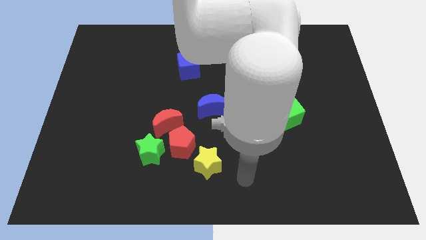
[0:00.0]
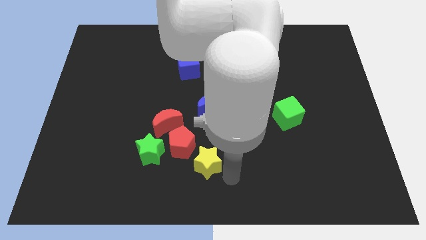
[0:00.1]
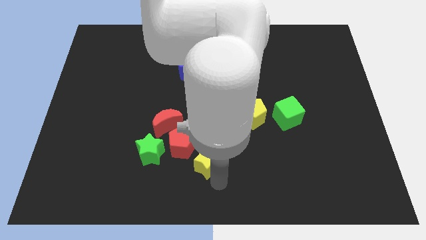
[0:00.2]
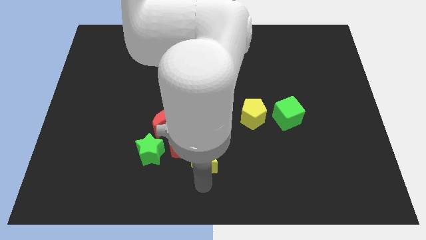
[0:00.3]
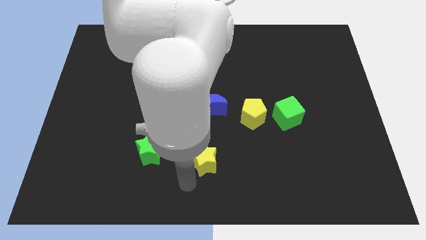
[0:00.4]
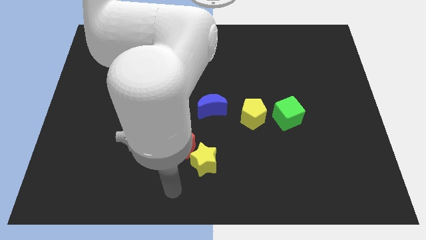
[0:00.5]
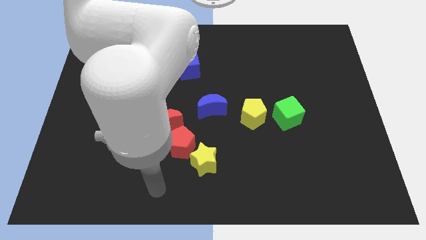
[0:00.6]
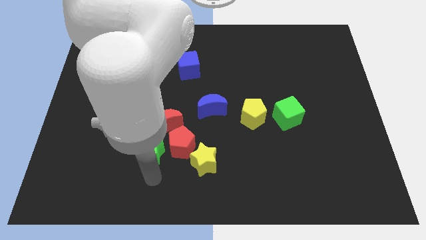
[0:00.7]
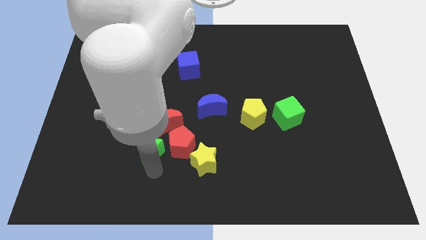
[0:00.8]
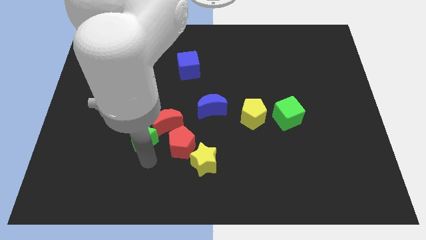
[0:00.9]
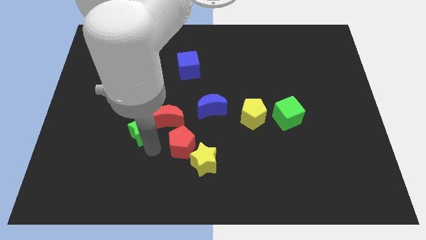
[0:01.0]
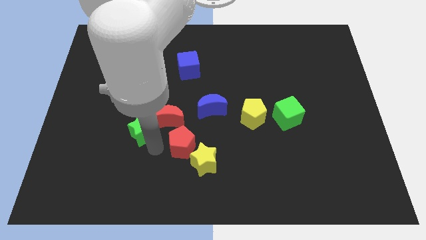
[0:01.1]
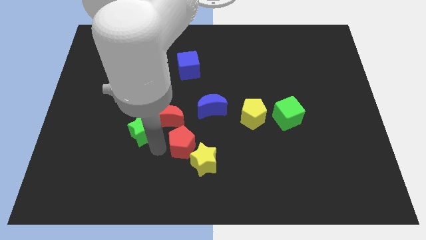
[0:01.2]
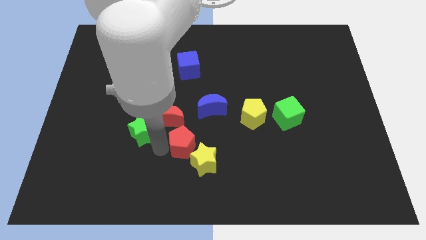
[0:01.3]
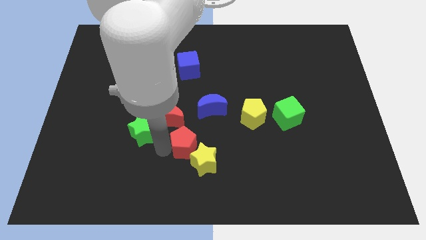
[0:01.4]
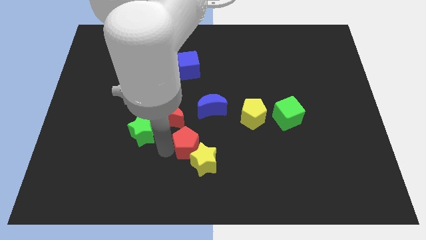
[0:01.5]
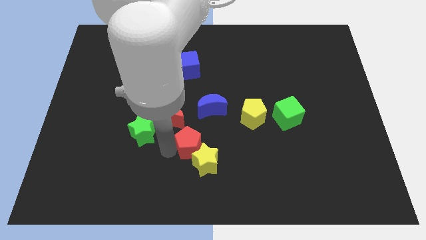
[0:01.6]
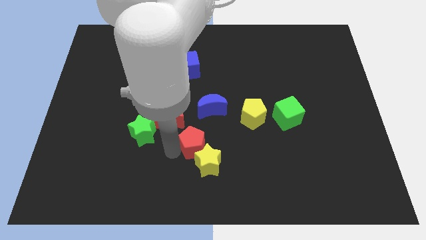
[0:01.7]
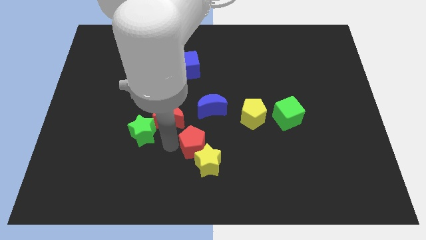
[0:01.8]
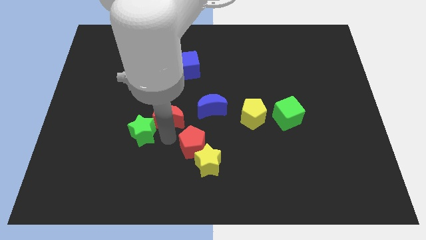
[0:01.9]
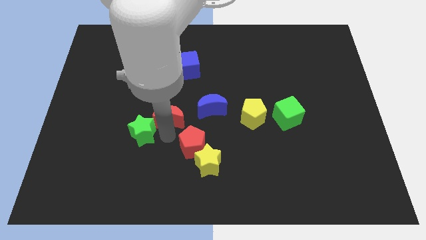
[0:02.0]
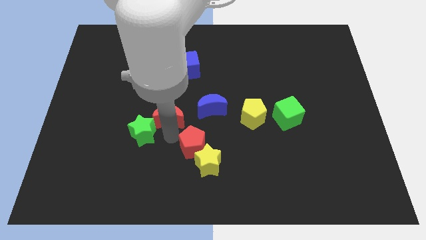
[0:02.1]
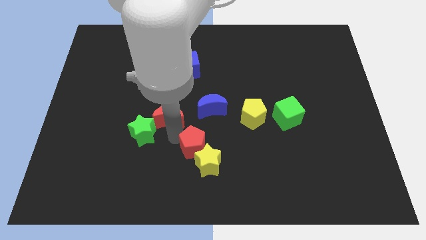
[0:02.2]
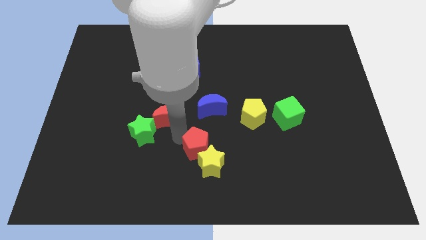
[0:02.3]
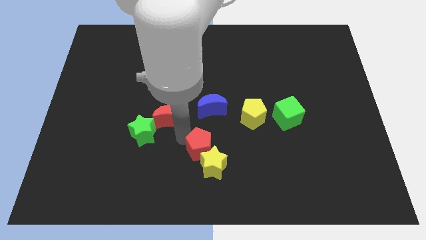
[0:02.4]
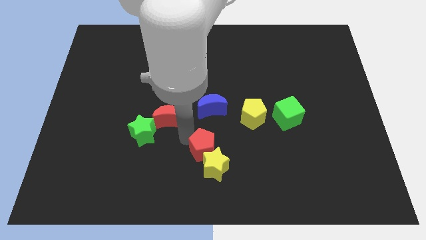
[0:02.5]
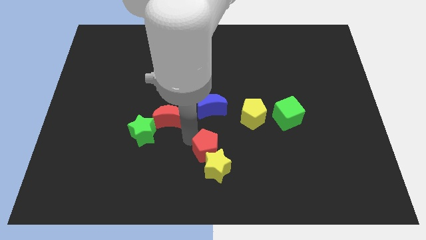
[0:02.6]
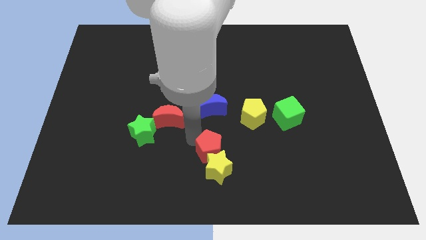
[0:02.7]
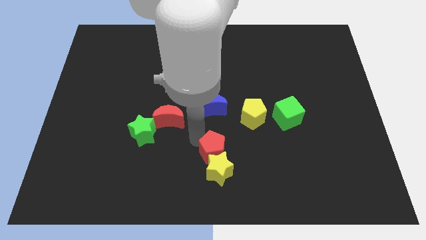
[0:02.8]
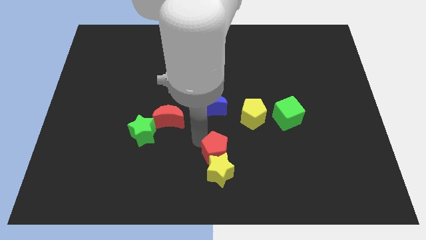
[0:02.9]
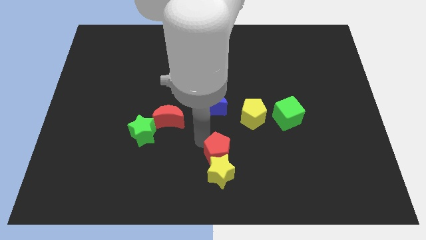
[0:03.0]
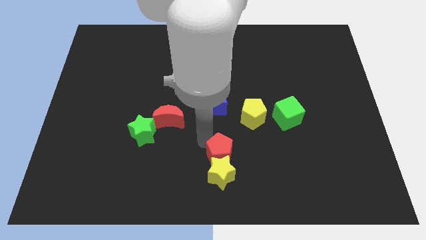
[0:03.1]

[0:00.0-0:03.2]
pull the red pentagon apart from the red moon, green star, and yellow star

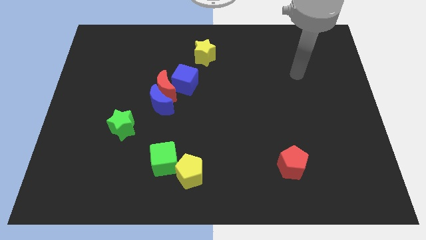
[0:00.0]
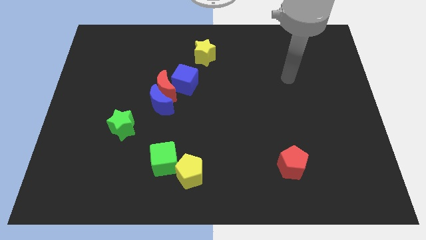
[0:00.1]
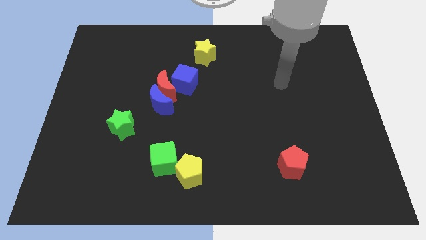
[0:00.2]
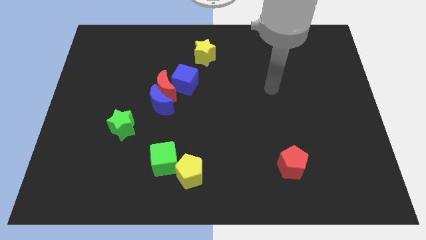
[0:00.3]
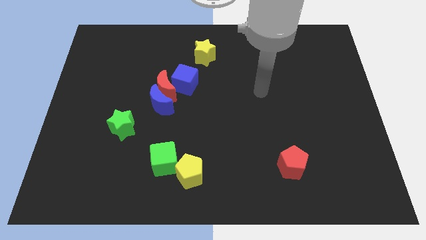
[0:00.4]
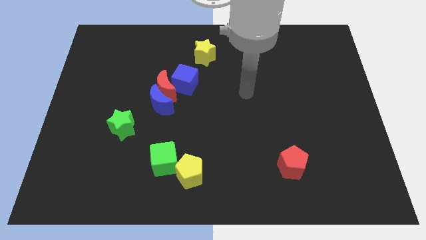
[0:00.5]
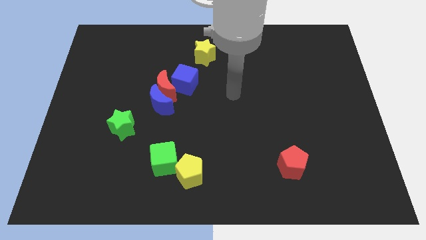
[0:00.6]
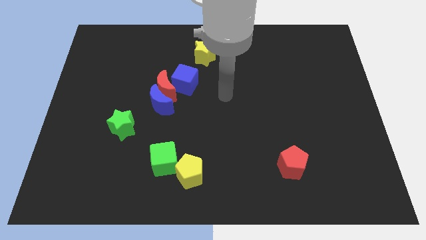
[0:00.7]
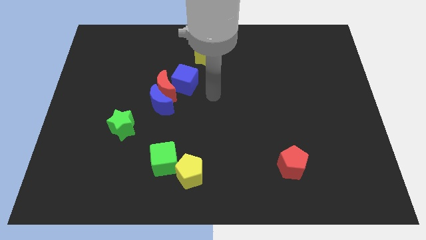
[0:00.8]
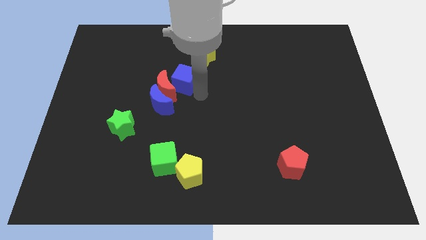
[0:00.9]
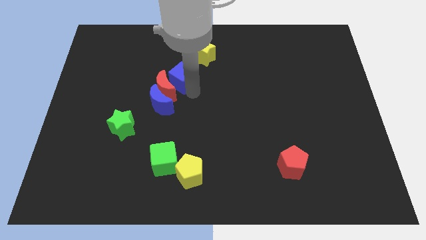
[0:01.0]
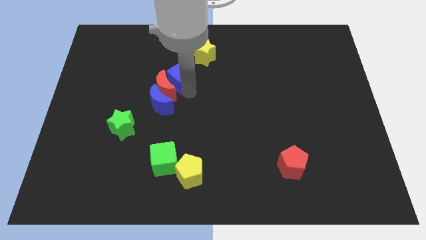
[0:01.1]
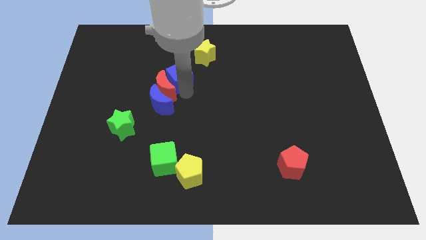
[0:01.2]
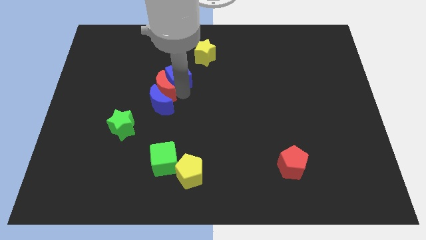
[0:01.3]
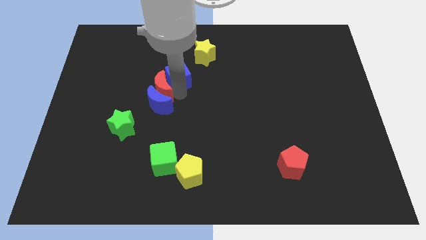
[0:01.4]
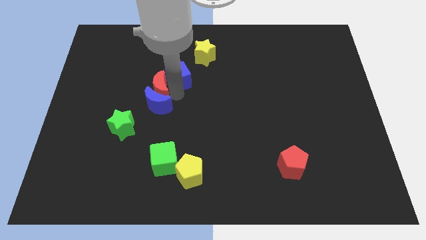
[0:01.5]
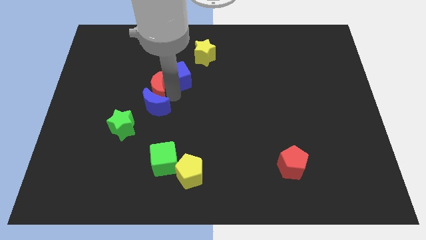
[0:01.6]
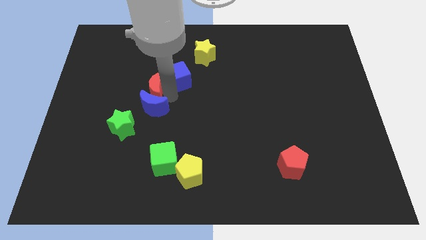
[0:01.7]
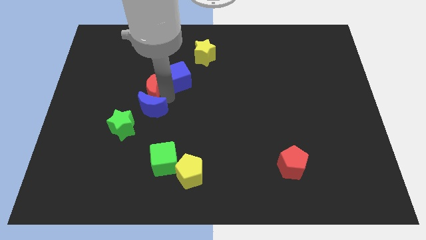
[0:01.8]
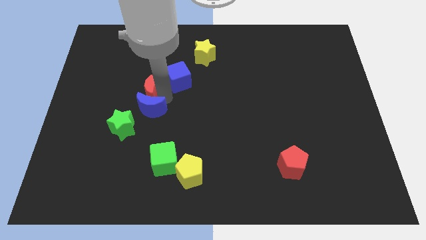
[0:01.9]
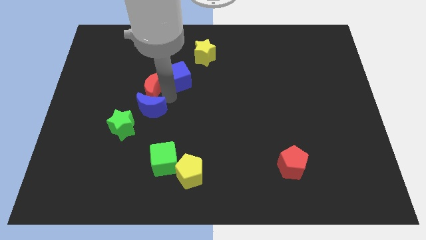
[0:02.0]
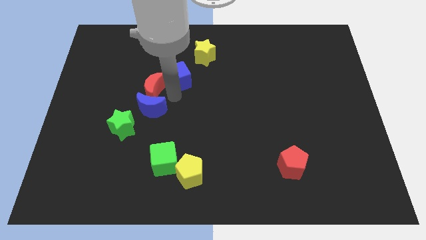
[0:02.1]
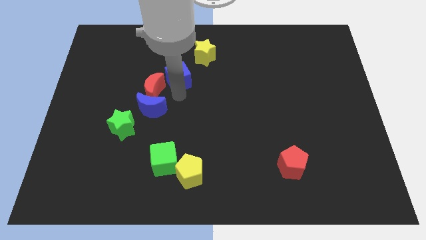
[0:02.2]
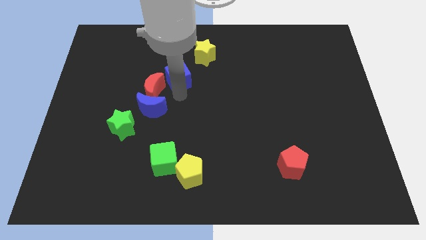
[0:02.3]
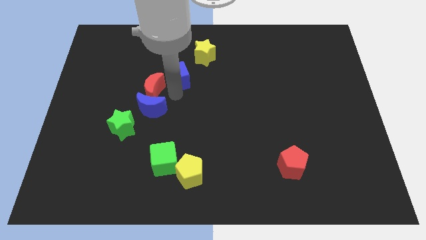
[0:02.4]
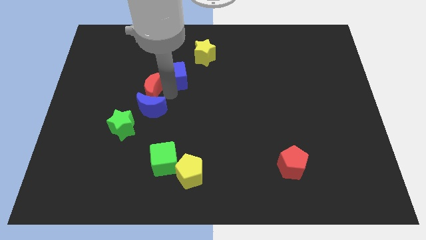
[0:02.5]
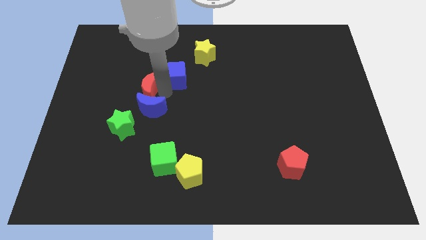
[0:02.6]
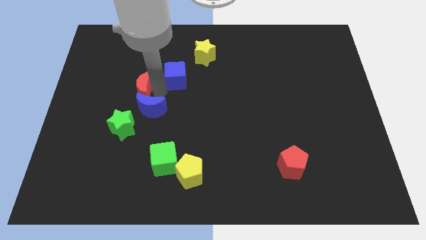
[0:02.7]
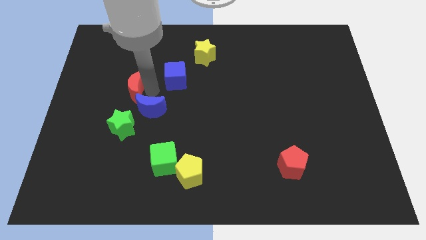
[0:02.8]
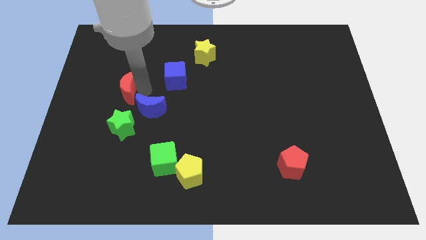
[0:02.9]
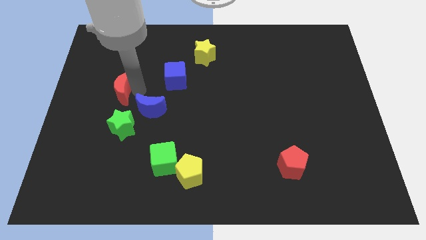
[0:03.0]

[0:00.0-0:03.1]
separate the red moon from the blue moon and blue cube

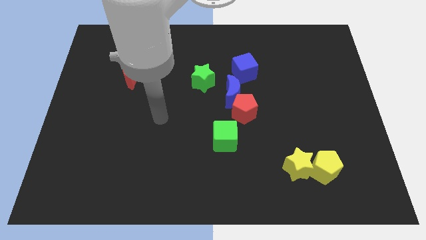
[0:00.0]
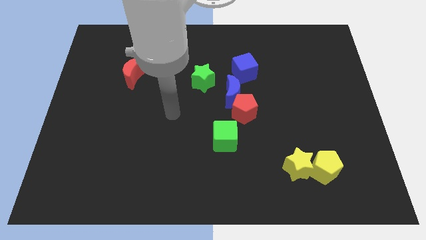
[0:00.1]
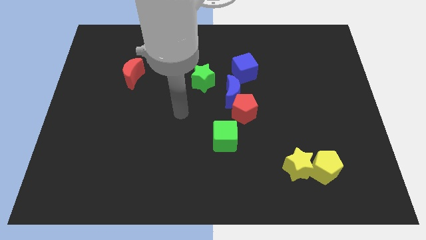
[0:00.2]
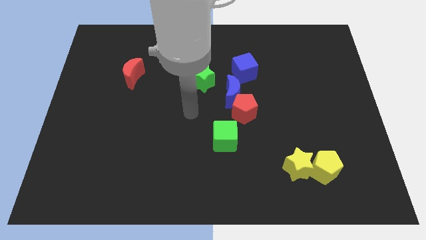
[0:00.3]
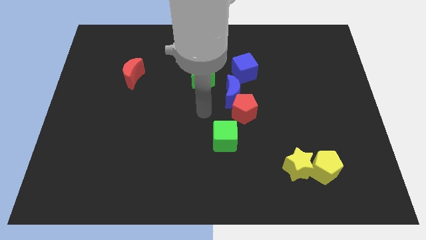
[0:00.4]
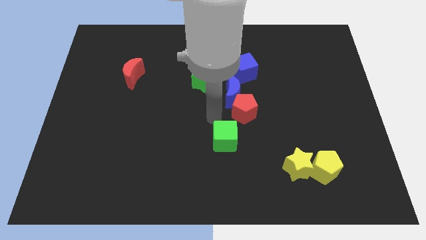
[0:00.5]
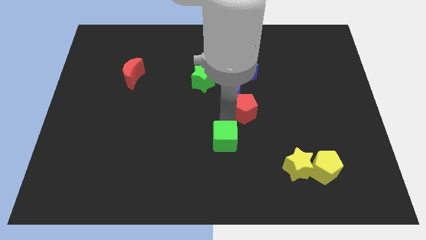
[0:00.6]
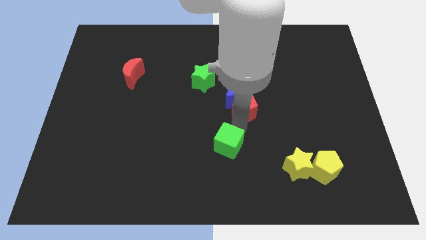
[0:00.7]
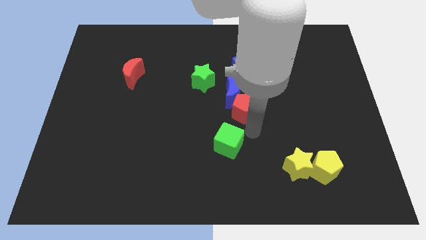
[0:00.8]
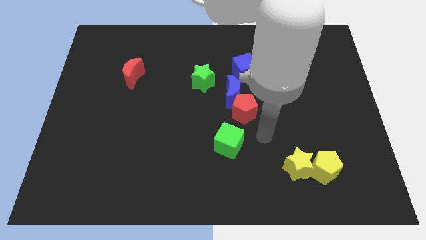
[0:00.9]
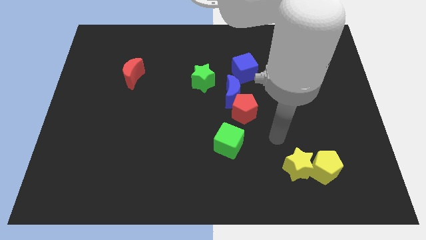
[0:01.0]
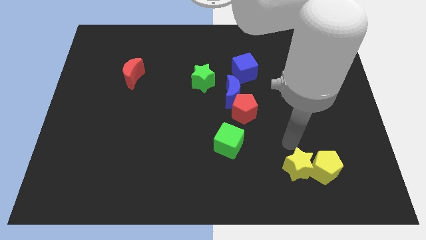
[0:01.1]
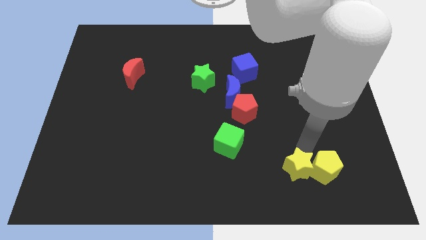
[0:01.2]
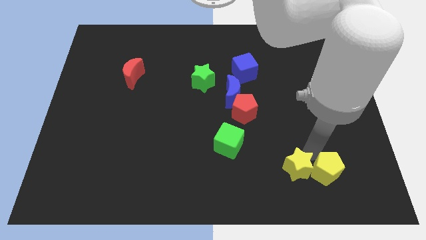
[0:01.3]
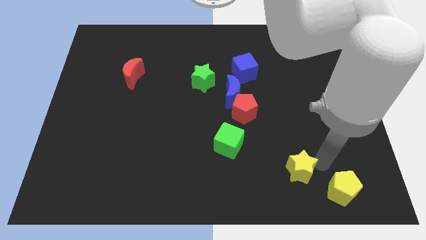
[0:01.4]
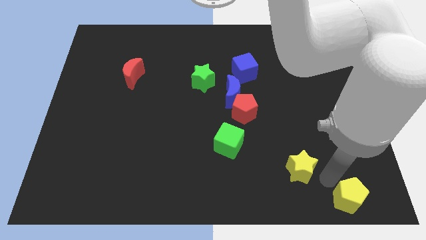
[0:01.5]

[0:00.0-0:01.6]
move the yellow star away from the yellow pentagon

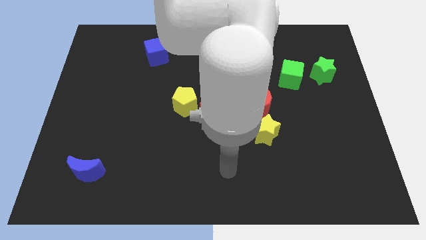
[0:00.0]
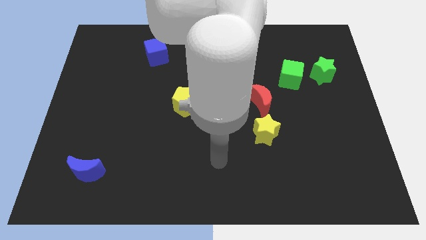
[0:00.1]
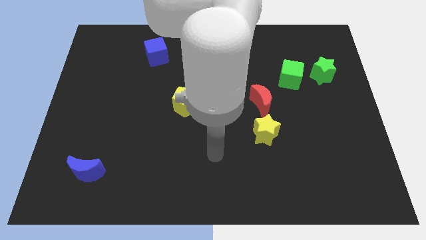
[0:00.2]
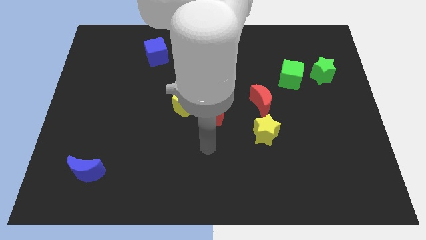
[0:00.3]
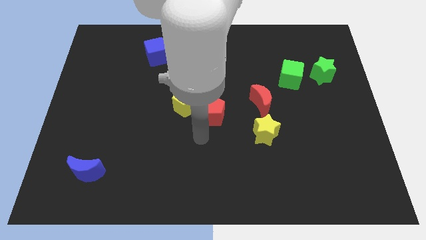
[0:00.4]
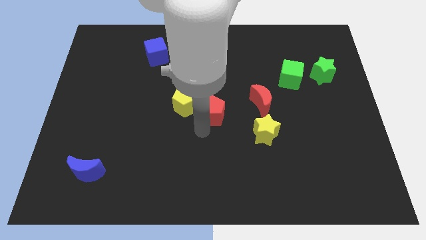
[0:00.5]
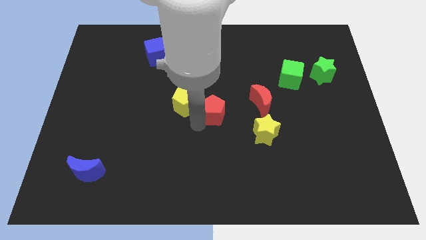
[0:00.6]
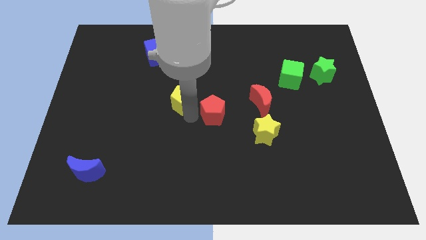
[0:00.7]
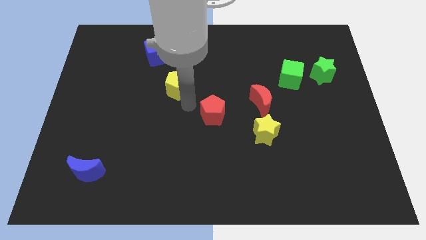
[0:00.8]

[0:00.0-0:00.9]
separate the red pentagon from the yellow pentagon

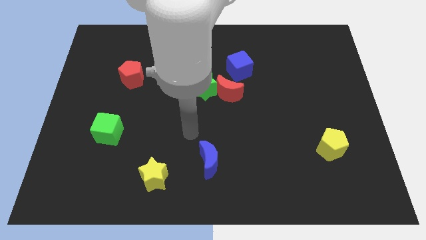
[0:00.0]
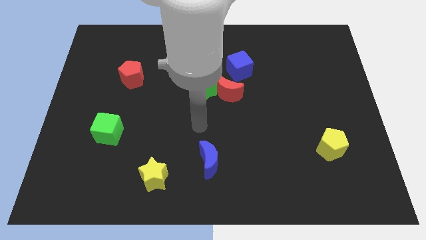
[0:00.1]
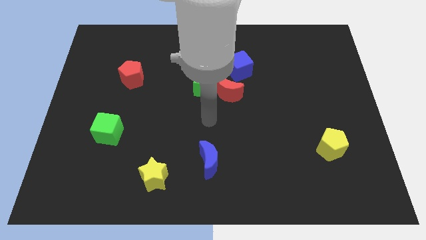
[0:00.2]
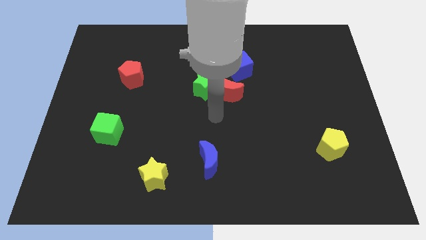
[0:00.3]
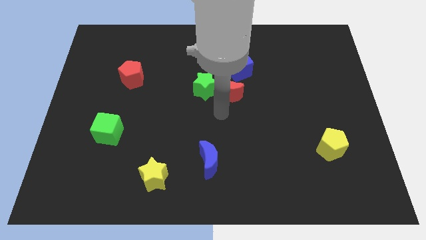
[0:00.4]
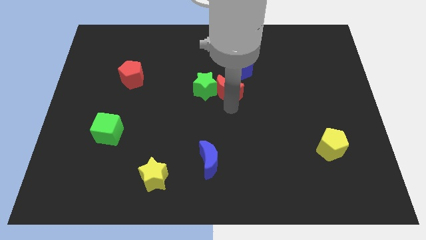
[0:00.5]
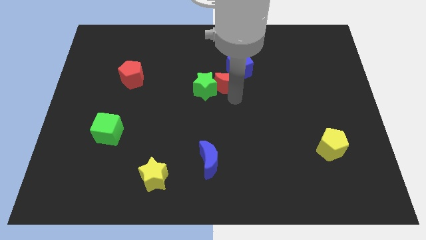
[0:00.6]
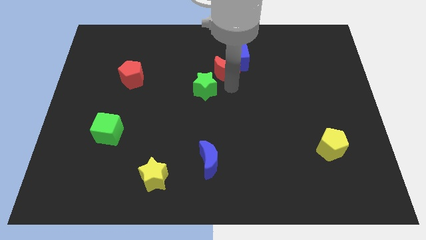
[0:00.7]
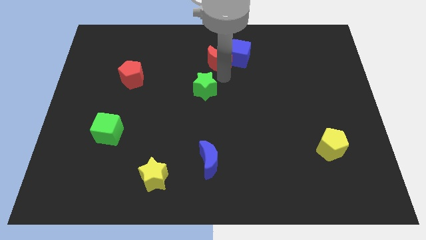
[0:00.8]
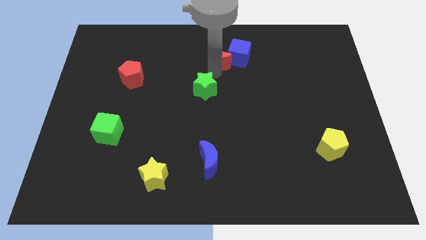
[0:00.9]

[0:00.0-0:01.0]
pull the green star apart from the red moon
